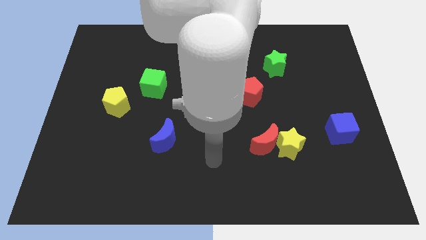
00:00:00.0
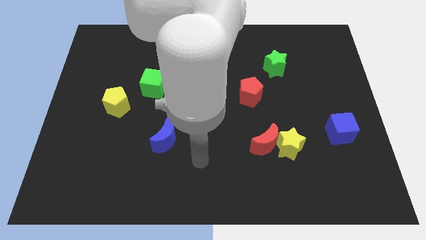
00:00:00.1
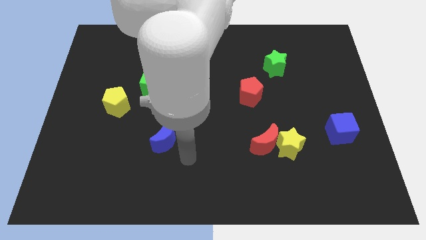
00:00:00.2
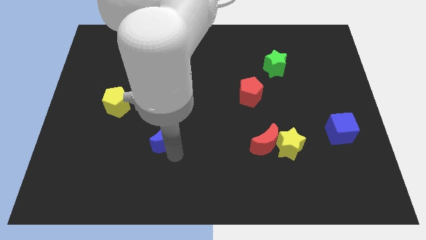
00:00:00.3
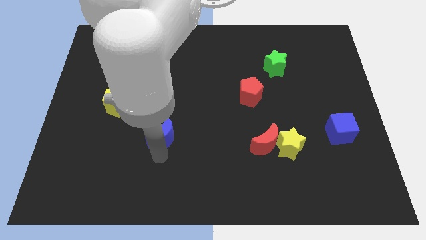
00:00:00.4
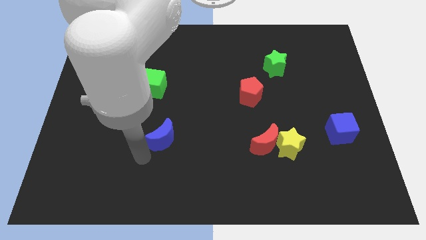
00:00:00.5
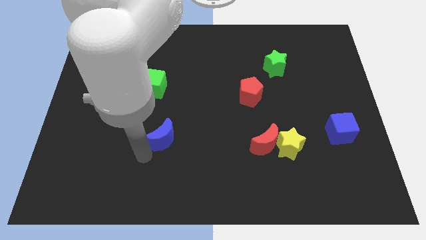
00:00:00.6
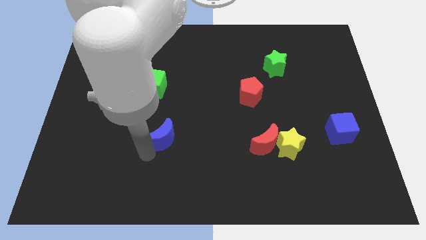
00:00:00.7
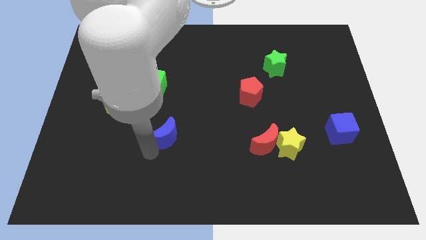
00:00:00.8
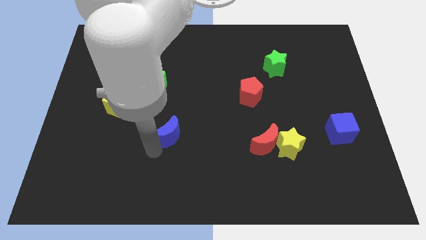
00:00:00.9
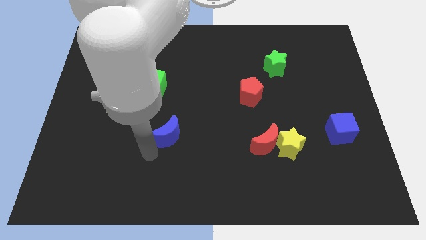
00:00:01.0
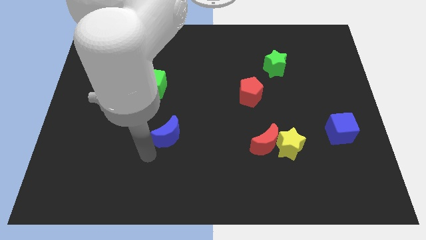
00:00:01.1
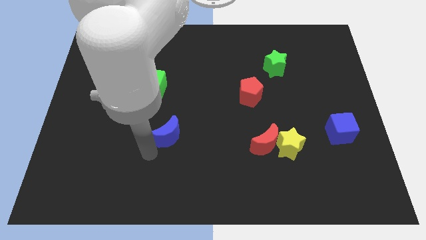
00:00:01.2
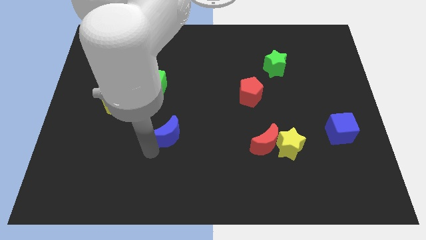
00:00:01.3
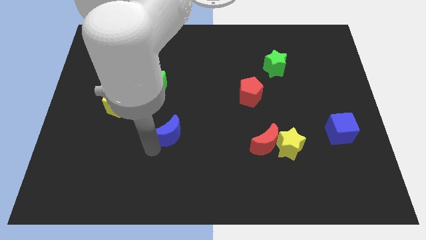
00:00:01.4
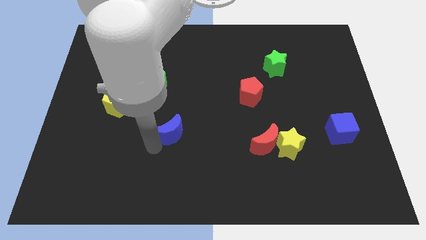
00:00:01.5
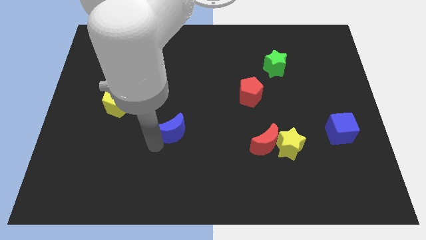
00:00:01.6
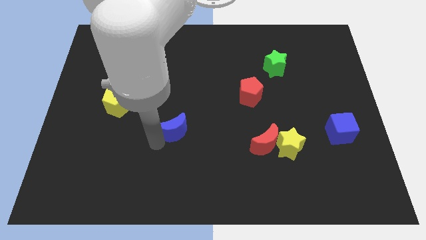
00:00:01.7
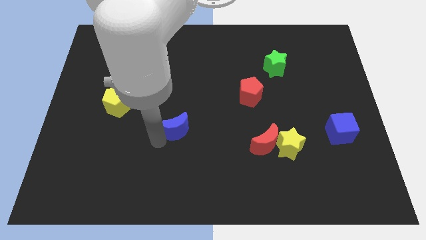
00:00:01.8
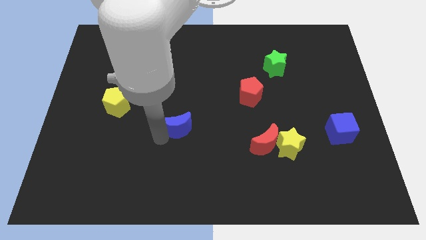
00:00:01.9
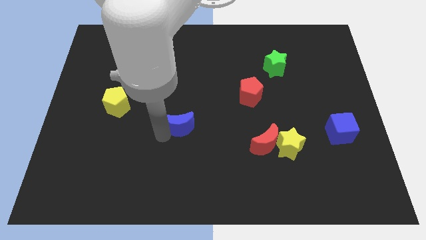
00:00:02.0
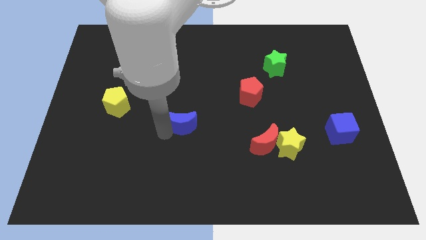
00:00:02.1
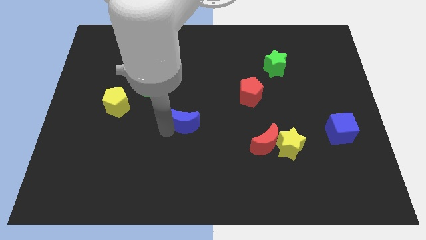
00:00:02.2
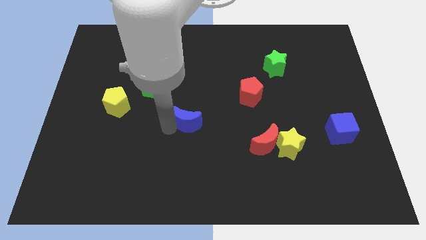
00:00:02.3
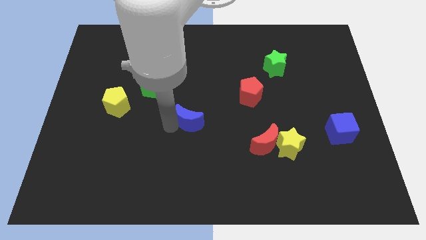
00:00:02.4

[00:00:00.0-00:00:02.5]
push the blue moon upwards and then right a little

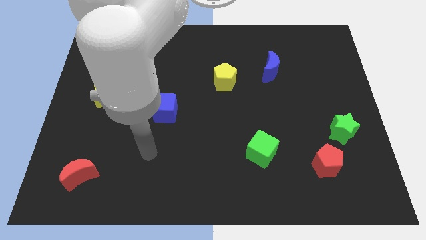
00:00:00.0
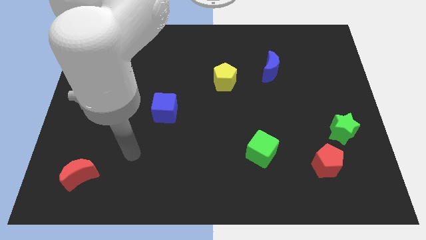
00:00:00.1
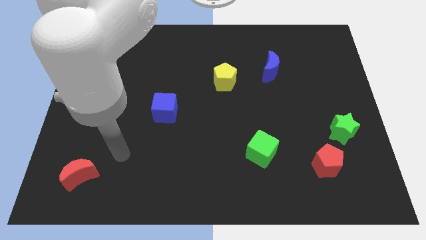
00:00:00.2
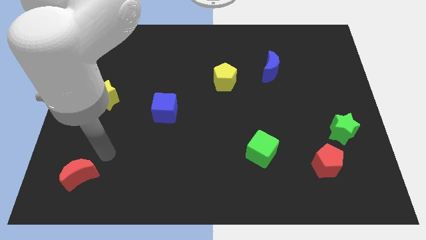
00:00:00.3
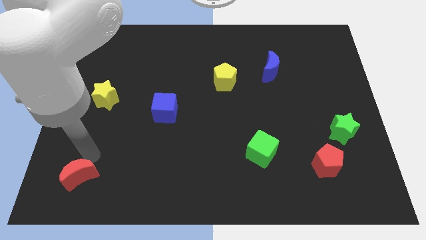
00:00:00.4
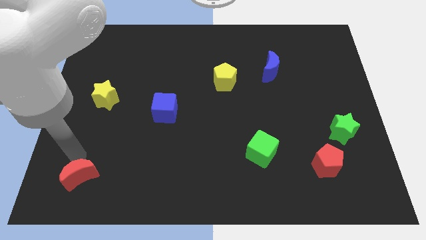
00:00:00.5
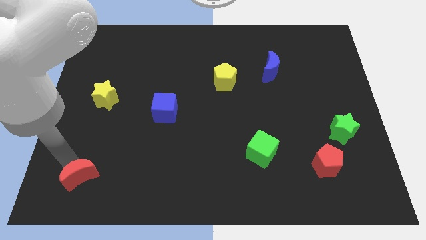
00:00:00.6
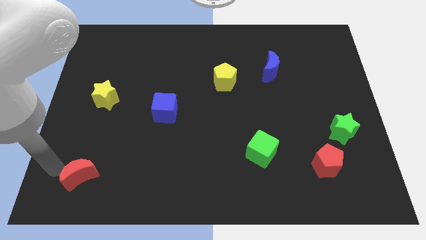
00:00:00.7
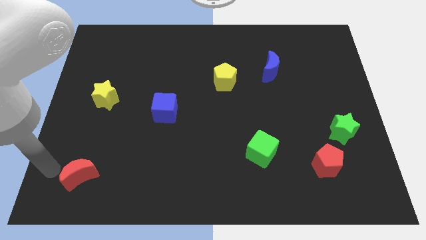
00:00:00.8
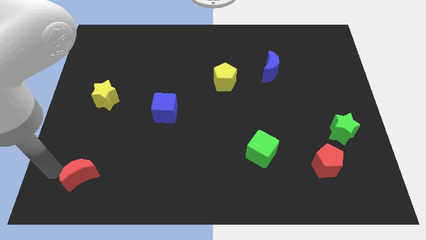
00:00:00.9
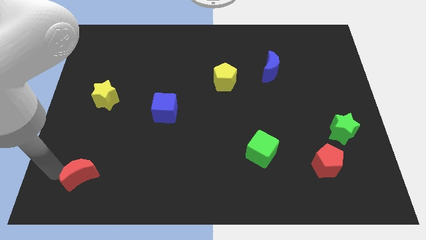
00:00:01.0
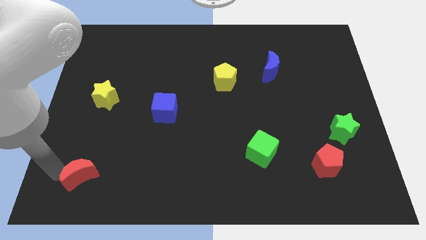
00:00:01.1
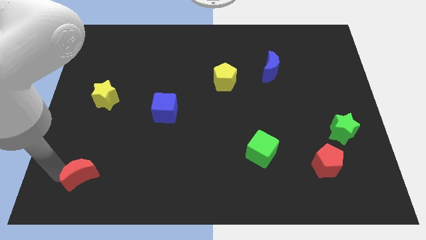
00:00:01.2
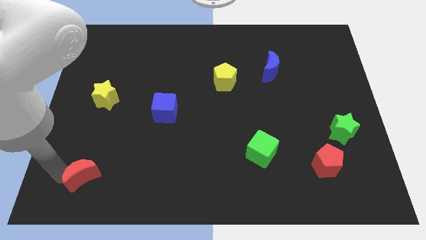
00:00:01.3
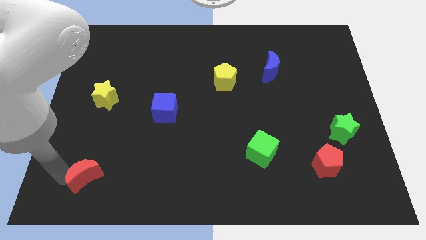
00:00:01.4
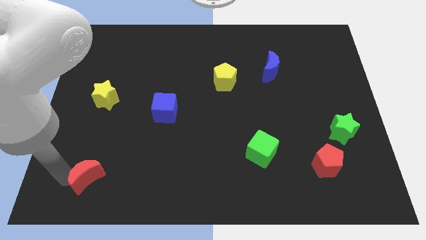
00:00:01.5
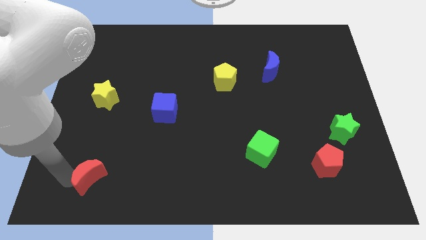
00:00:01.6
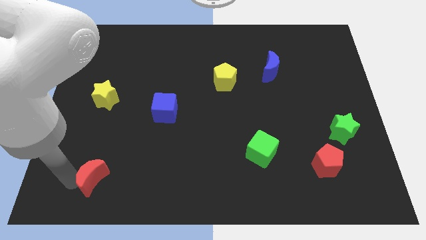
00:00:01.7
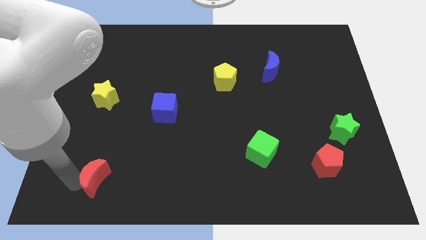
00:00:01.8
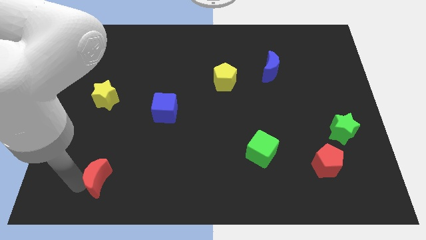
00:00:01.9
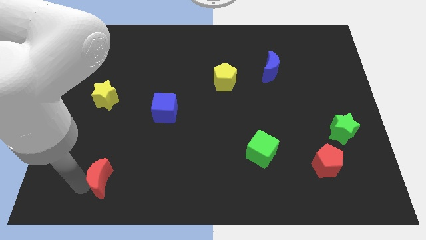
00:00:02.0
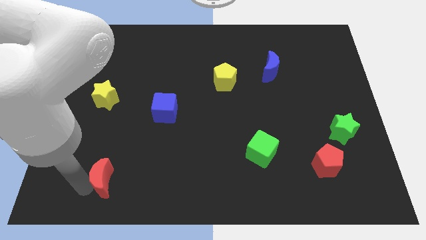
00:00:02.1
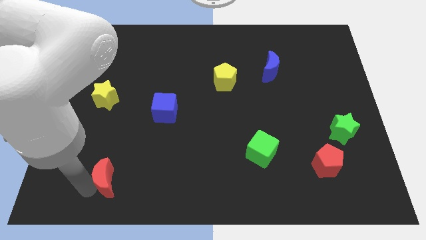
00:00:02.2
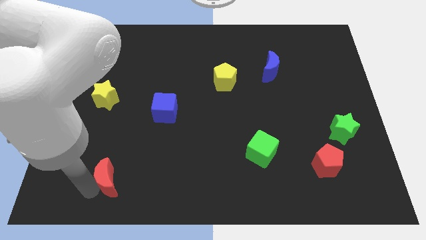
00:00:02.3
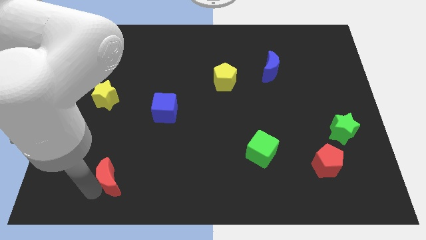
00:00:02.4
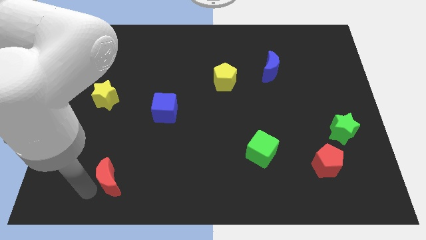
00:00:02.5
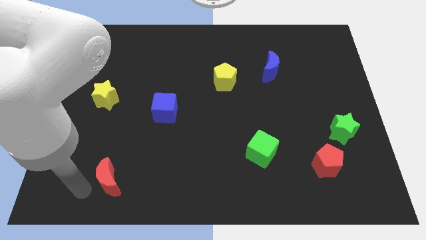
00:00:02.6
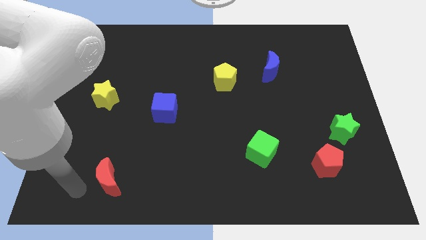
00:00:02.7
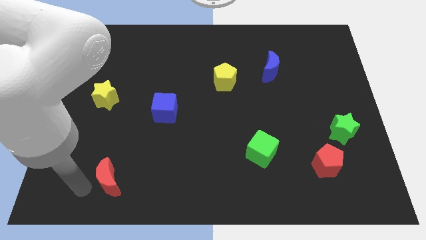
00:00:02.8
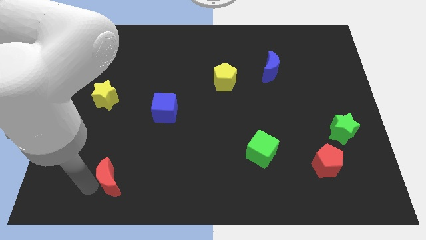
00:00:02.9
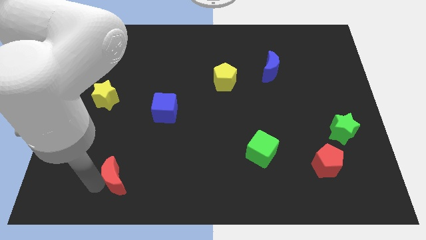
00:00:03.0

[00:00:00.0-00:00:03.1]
move the red moon somewhat right

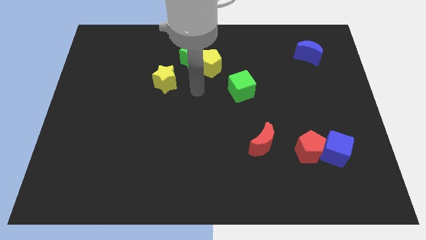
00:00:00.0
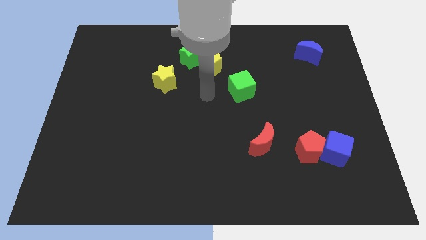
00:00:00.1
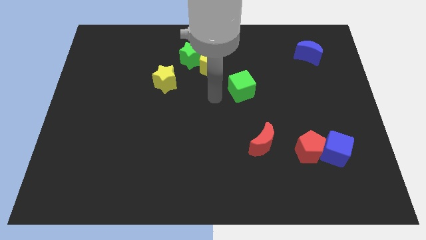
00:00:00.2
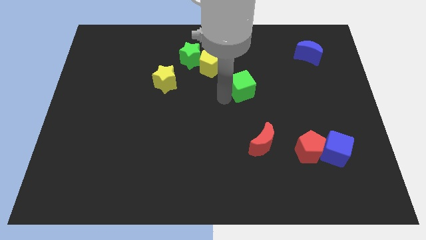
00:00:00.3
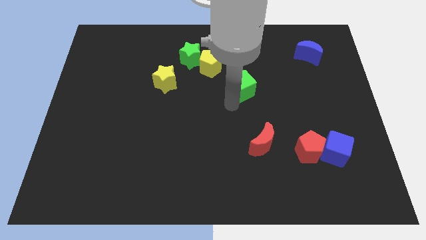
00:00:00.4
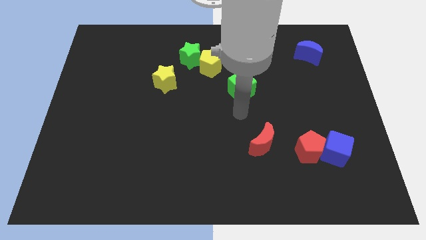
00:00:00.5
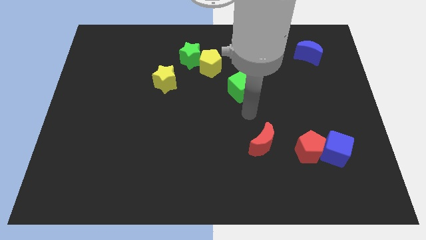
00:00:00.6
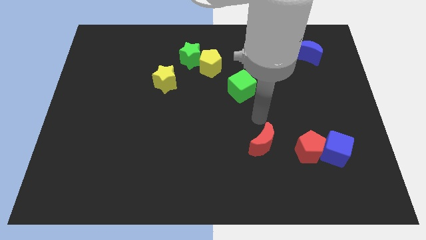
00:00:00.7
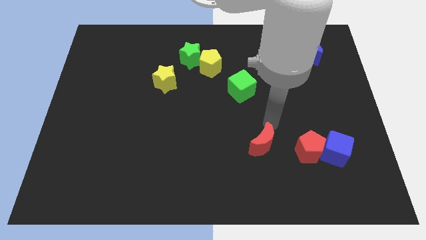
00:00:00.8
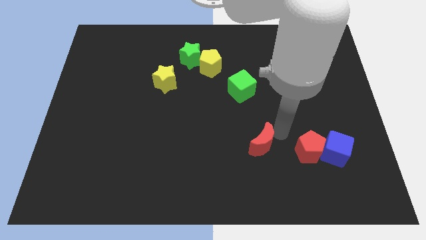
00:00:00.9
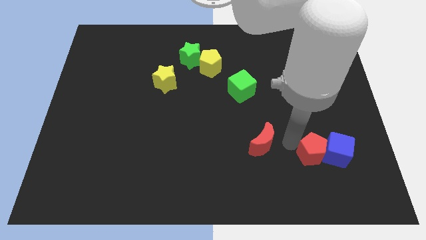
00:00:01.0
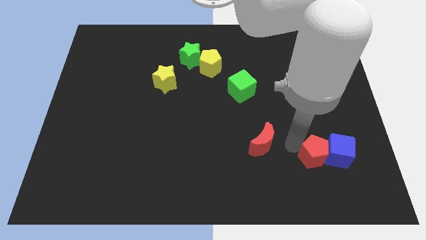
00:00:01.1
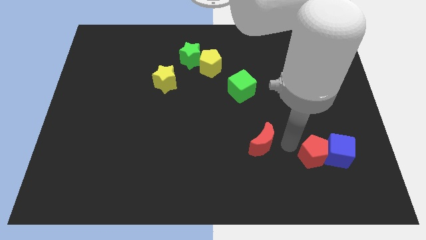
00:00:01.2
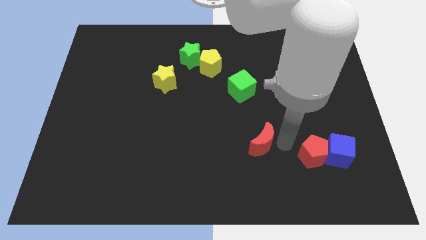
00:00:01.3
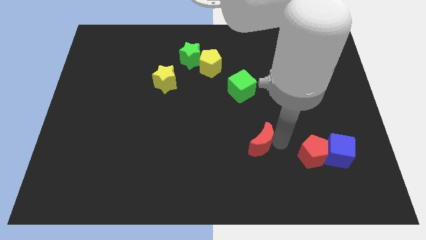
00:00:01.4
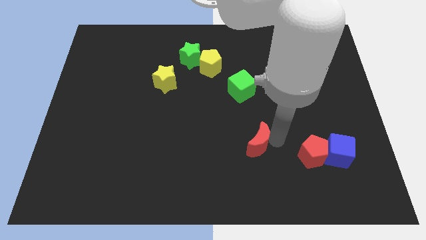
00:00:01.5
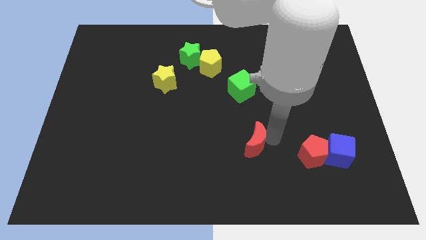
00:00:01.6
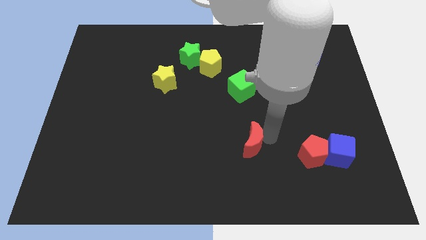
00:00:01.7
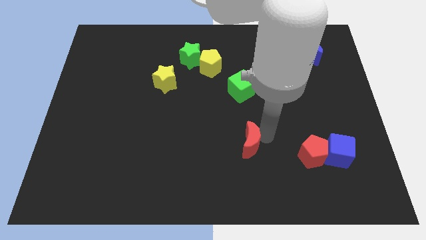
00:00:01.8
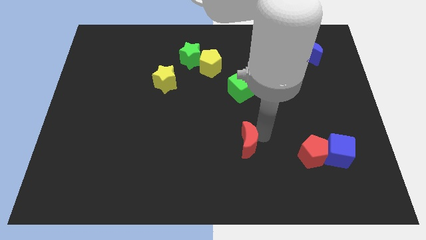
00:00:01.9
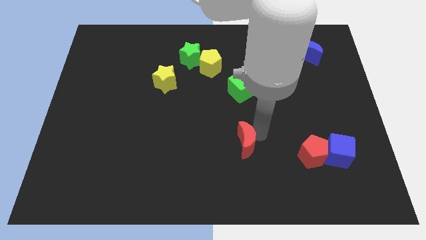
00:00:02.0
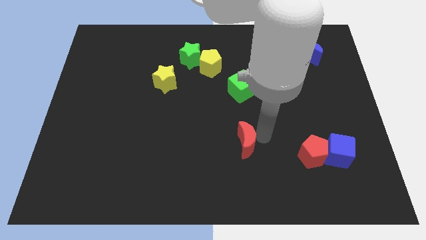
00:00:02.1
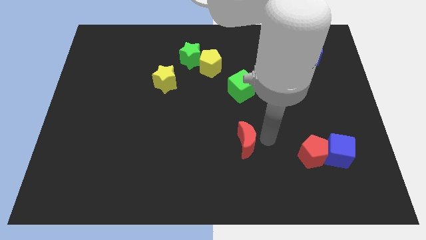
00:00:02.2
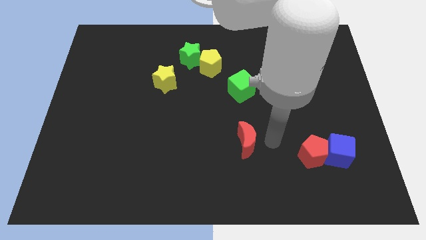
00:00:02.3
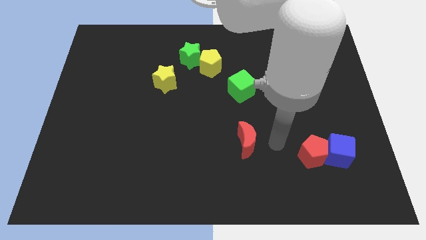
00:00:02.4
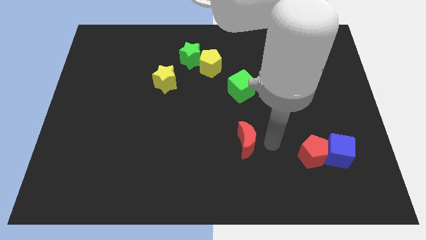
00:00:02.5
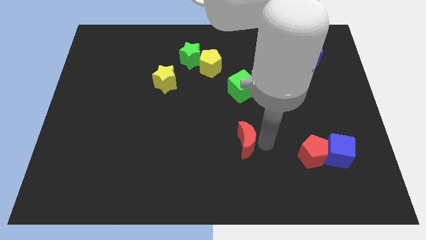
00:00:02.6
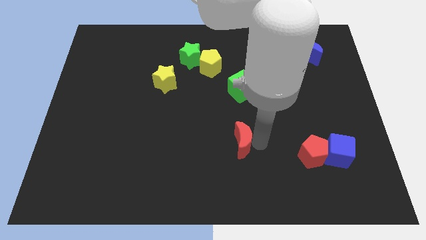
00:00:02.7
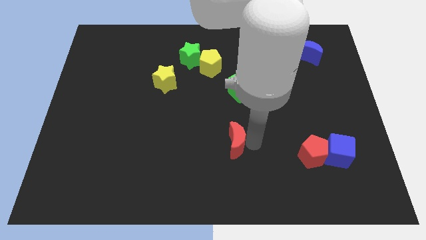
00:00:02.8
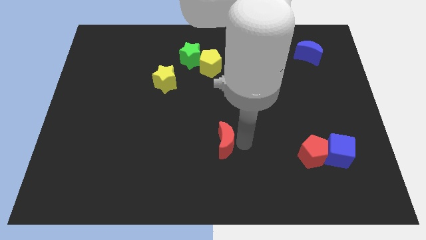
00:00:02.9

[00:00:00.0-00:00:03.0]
slide the red moon slightly to the left

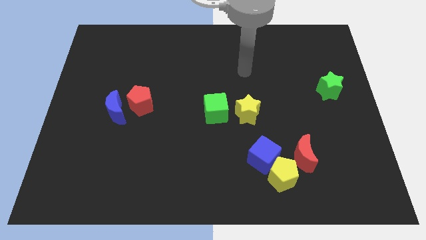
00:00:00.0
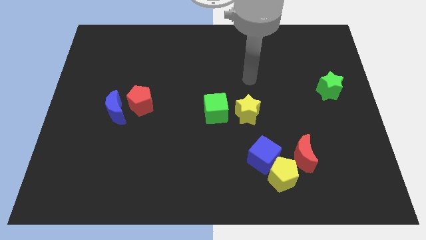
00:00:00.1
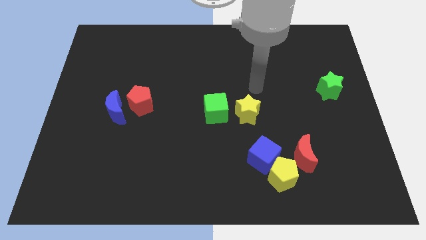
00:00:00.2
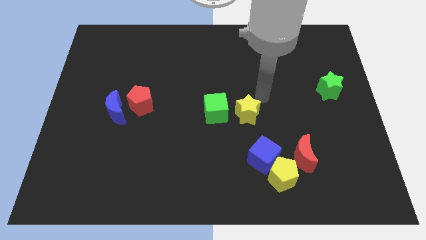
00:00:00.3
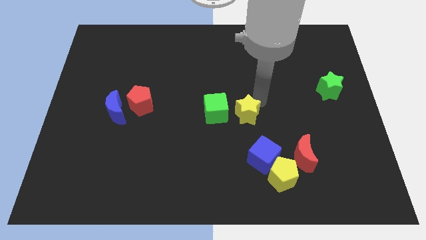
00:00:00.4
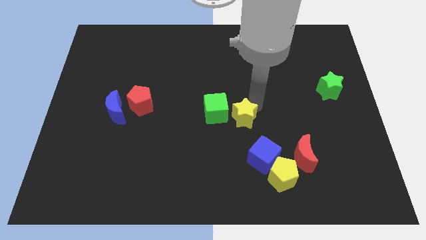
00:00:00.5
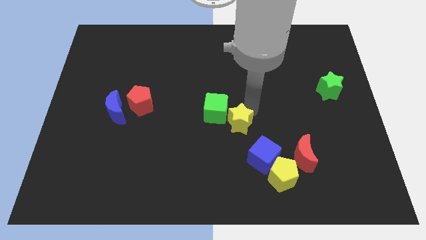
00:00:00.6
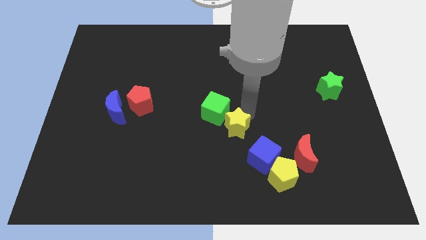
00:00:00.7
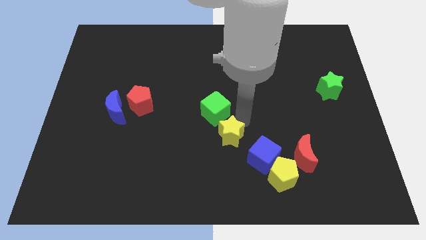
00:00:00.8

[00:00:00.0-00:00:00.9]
slide the yellow star diagonally down and to the left a little
